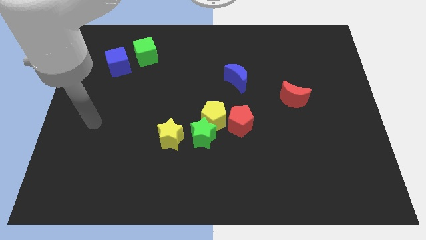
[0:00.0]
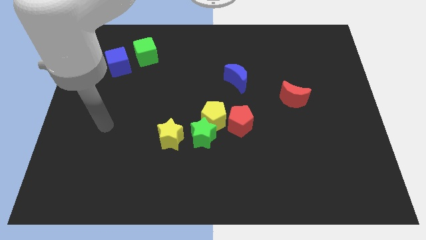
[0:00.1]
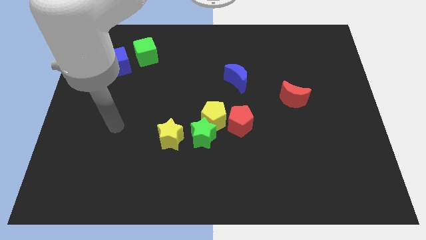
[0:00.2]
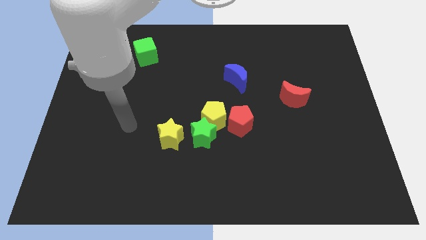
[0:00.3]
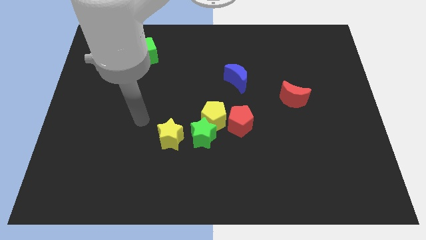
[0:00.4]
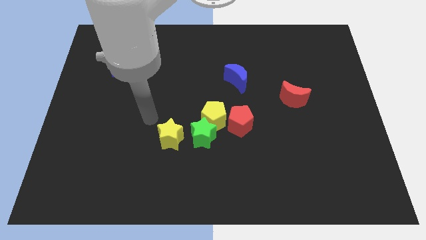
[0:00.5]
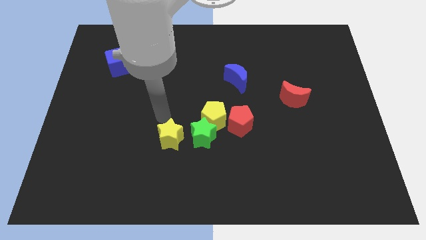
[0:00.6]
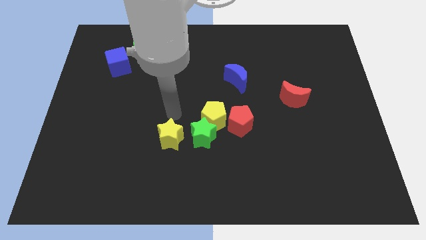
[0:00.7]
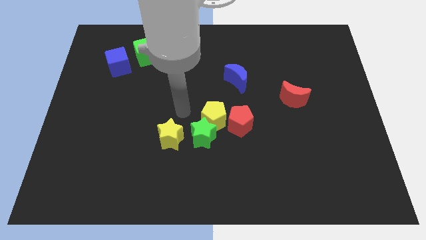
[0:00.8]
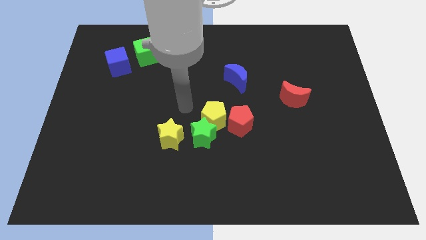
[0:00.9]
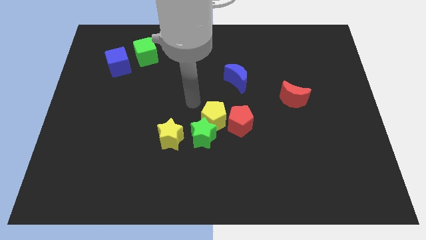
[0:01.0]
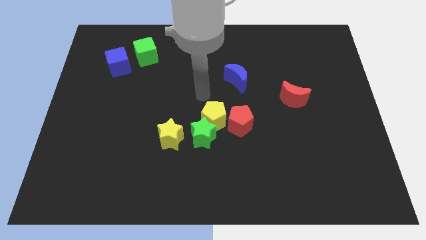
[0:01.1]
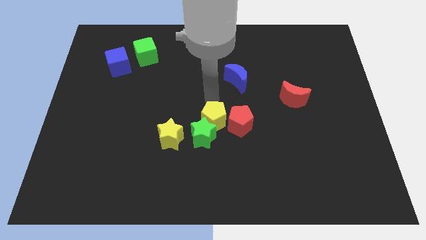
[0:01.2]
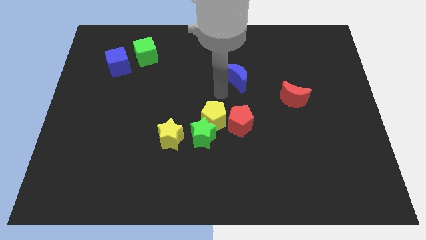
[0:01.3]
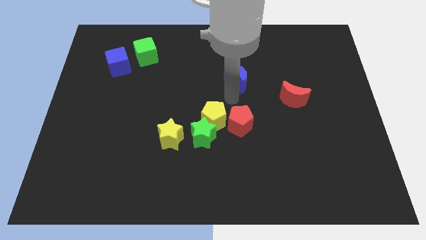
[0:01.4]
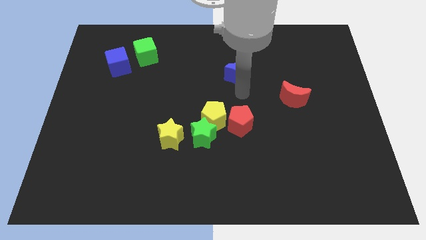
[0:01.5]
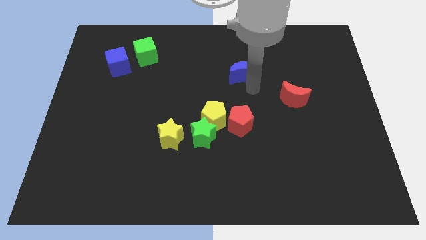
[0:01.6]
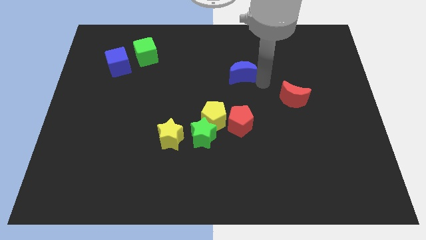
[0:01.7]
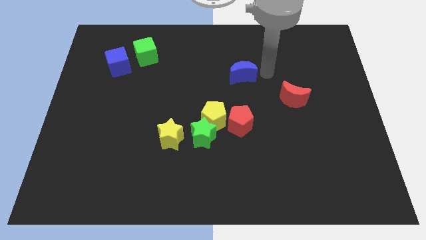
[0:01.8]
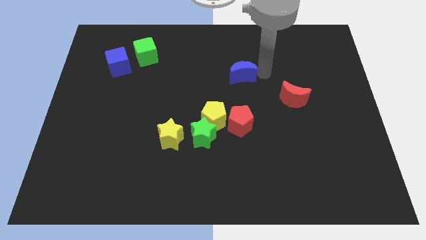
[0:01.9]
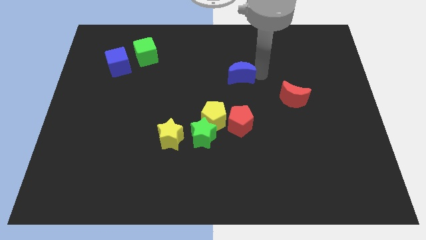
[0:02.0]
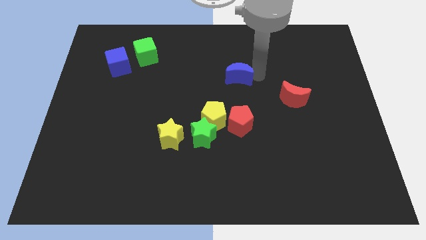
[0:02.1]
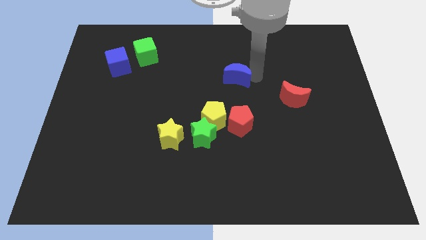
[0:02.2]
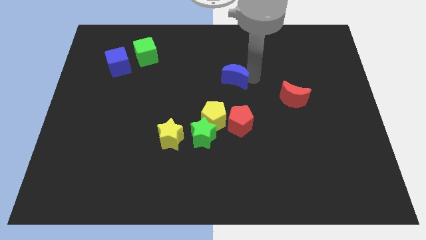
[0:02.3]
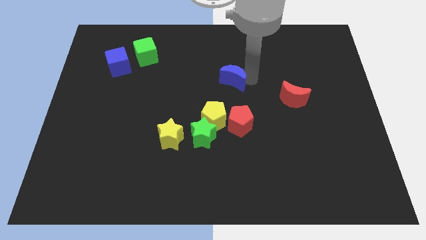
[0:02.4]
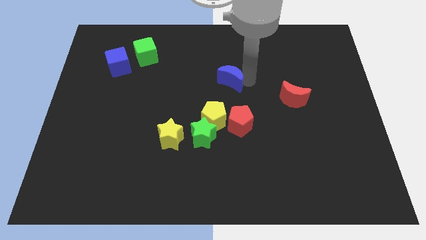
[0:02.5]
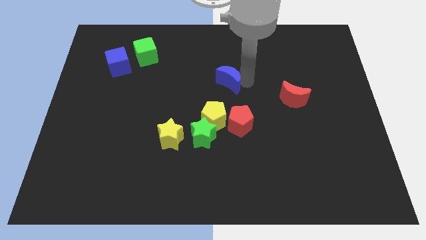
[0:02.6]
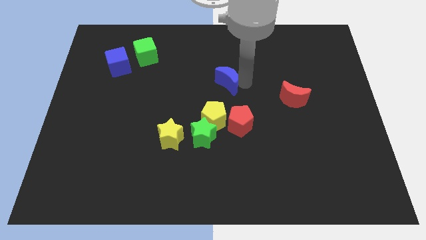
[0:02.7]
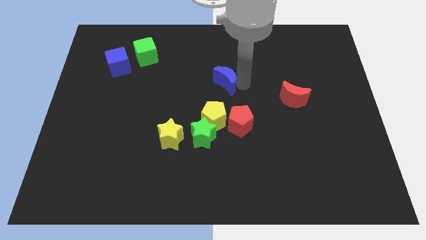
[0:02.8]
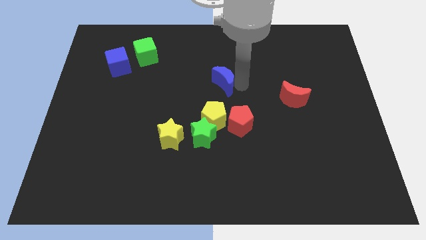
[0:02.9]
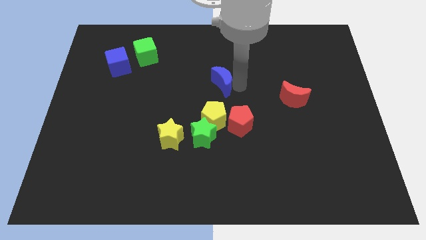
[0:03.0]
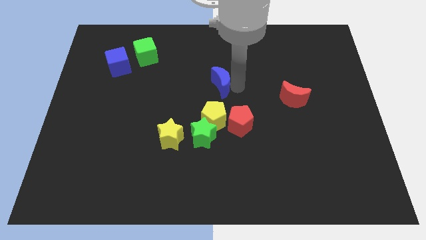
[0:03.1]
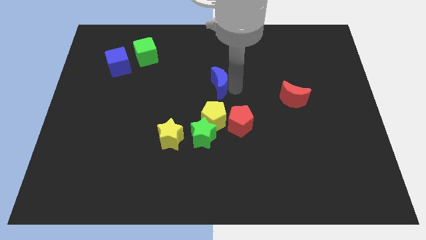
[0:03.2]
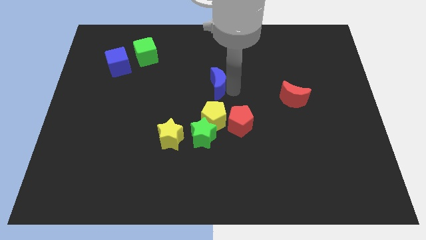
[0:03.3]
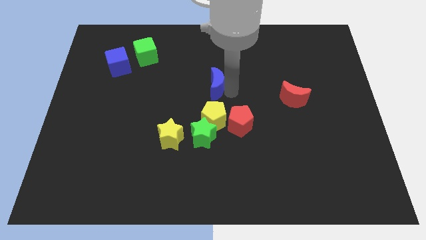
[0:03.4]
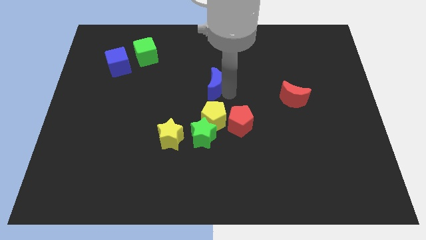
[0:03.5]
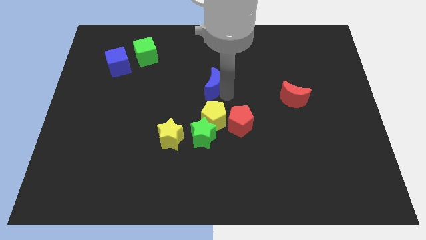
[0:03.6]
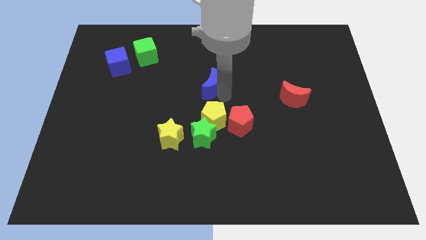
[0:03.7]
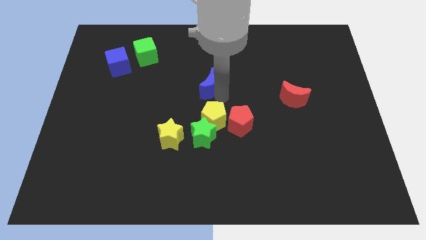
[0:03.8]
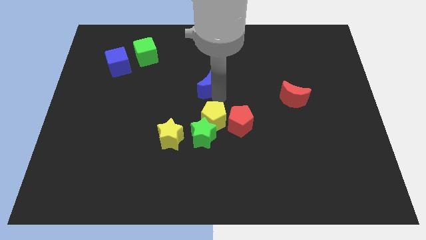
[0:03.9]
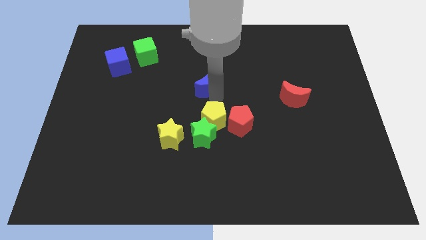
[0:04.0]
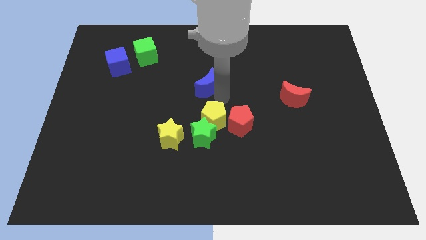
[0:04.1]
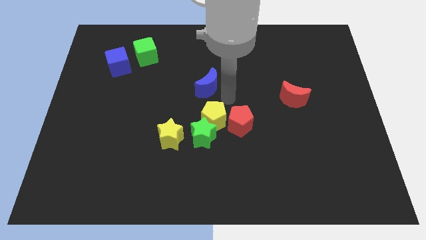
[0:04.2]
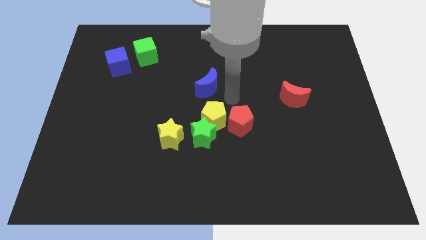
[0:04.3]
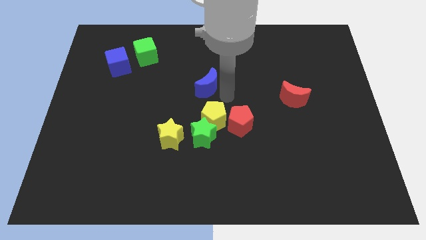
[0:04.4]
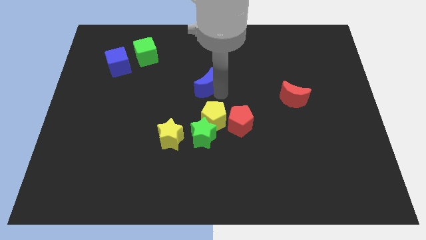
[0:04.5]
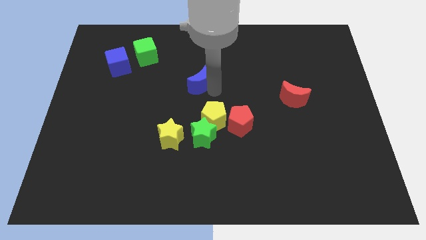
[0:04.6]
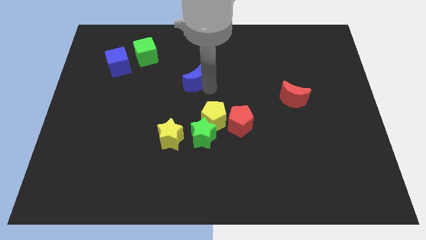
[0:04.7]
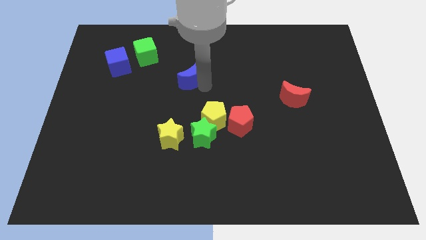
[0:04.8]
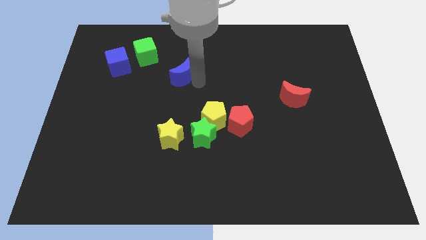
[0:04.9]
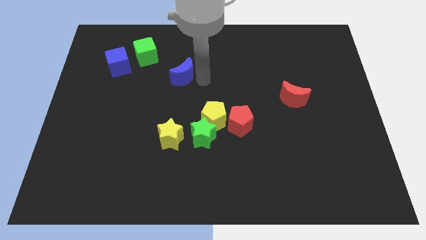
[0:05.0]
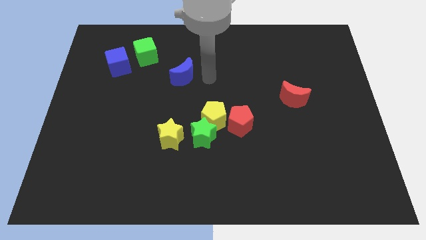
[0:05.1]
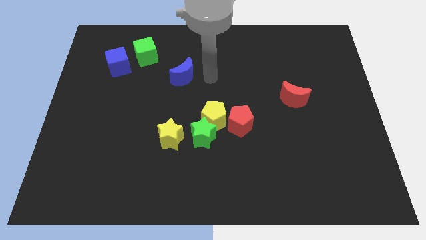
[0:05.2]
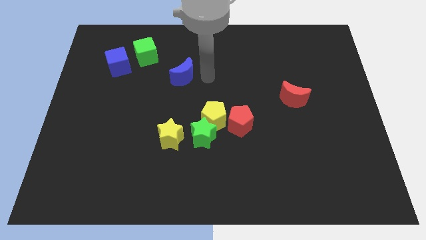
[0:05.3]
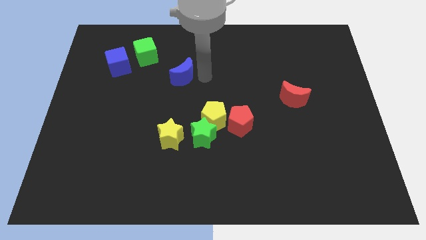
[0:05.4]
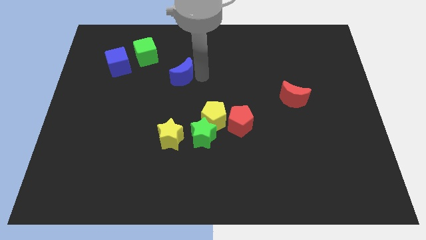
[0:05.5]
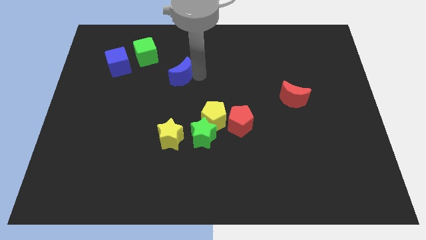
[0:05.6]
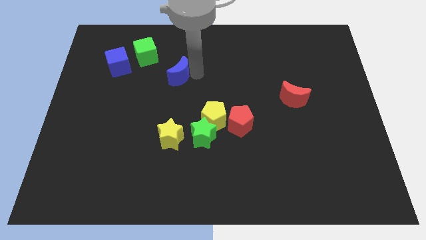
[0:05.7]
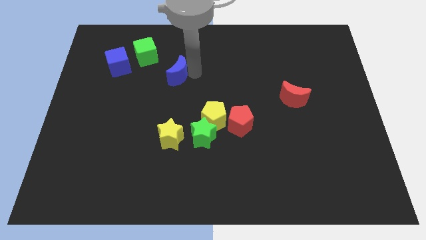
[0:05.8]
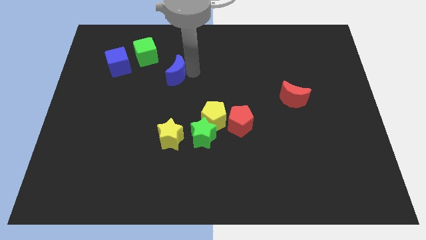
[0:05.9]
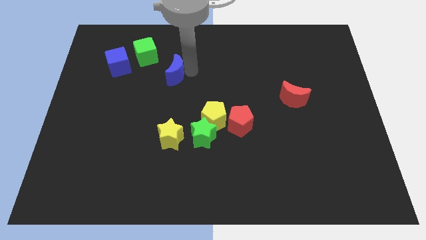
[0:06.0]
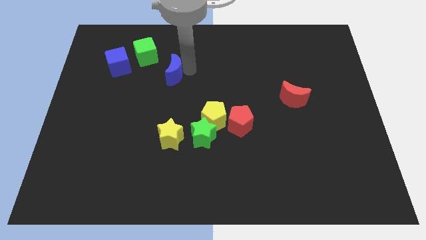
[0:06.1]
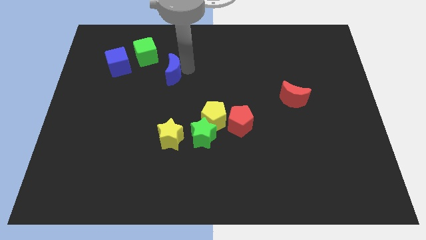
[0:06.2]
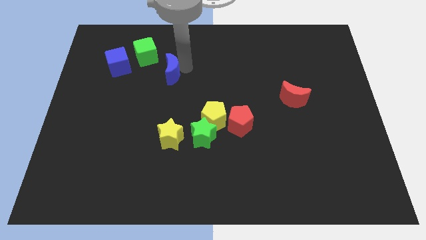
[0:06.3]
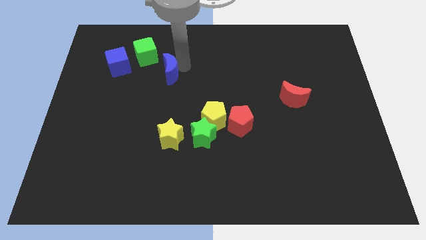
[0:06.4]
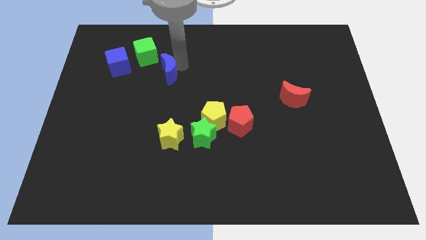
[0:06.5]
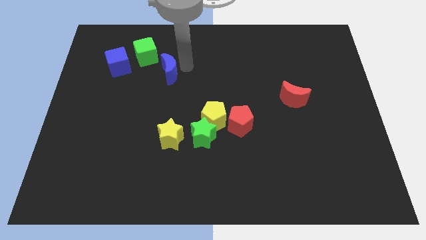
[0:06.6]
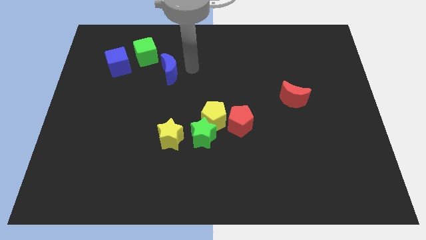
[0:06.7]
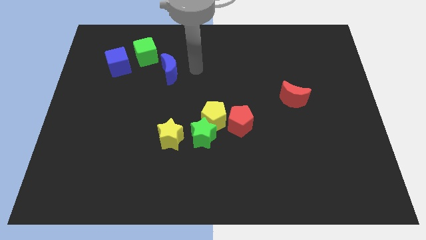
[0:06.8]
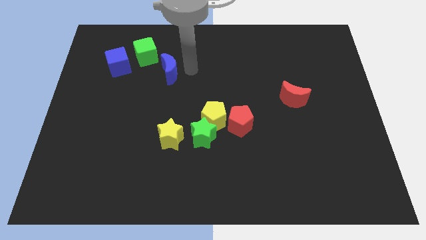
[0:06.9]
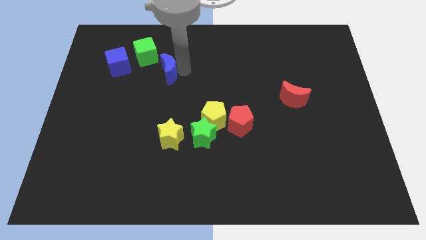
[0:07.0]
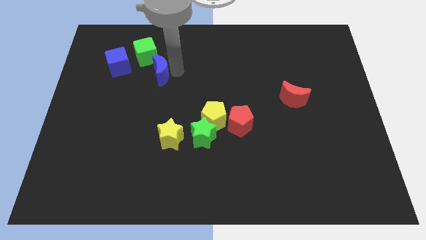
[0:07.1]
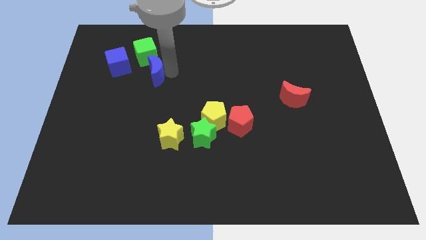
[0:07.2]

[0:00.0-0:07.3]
push the blue moon to the left

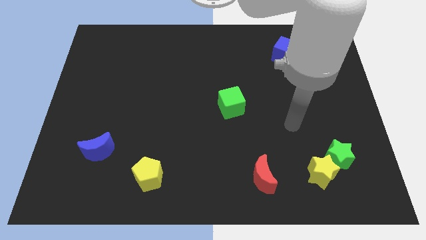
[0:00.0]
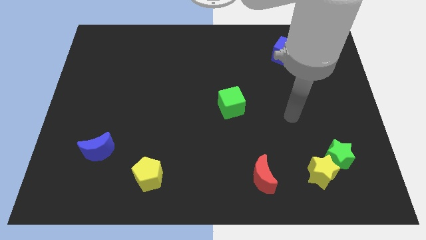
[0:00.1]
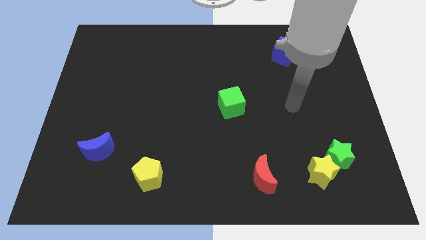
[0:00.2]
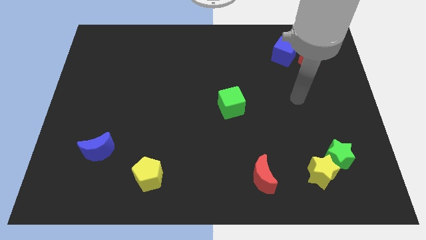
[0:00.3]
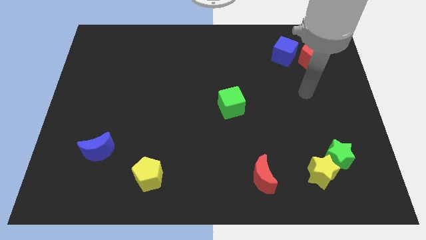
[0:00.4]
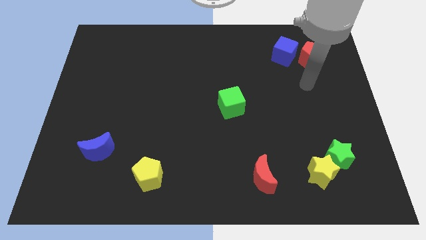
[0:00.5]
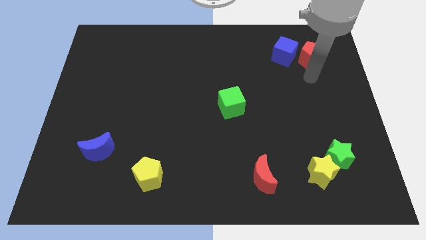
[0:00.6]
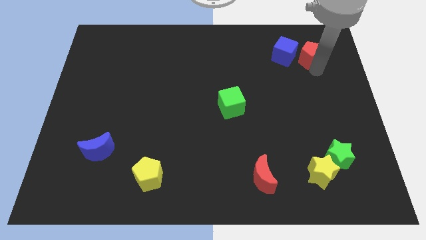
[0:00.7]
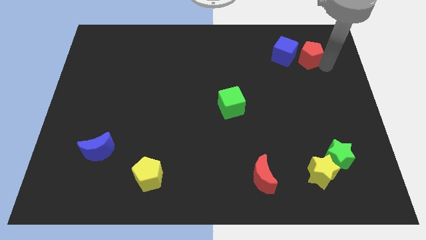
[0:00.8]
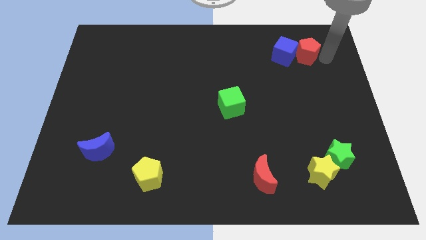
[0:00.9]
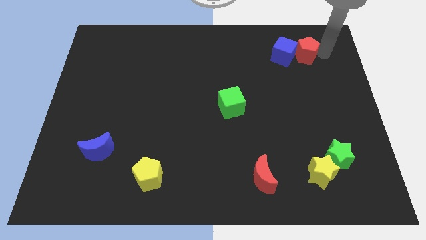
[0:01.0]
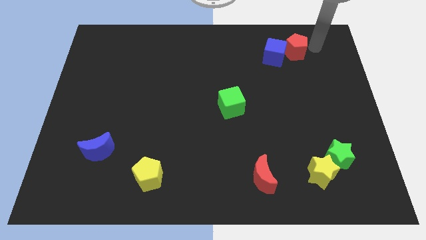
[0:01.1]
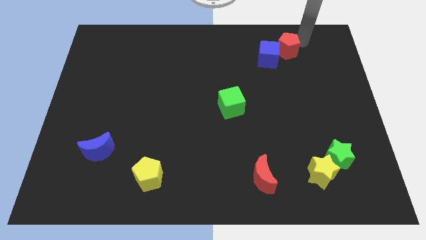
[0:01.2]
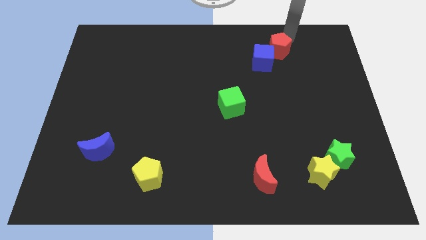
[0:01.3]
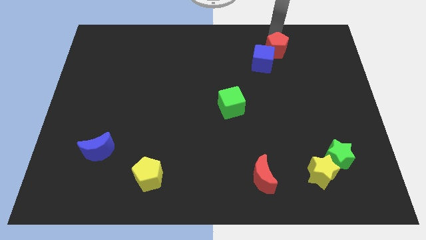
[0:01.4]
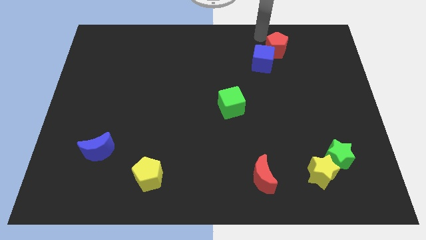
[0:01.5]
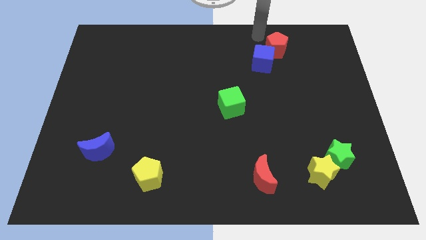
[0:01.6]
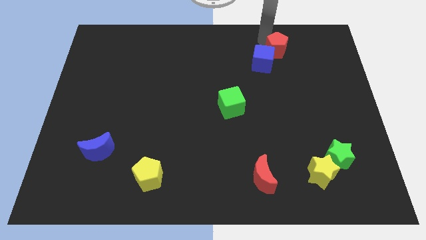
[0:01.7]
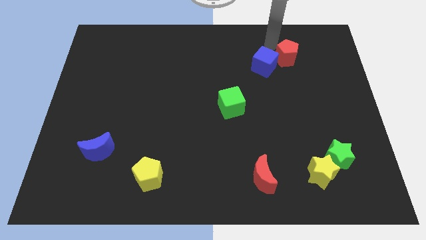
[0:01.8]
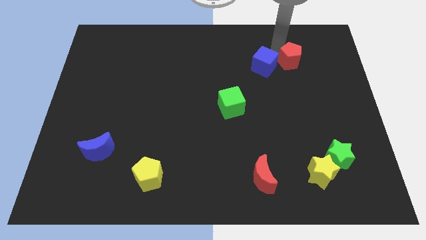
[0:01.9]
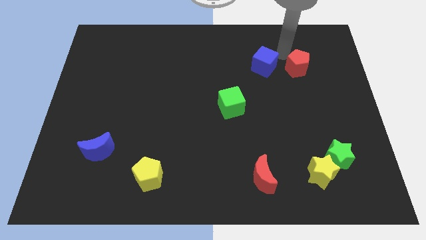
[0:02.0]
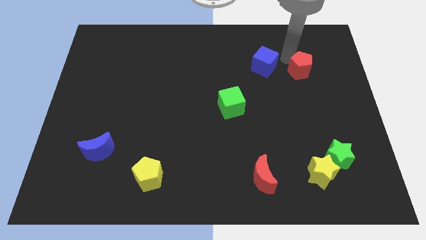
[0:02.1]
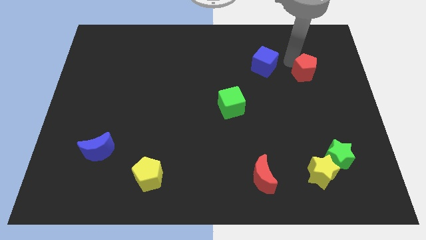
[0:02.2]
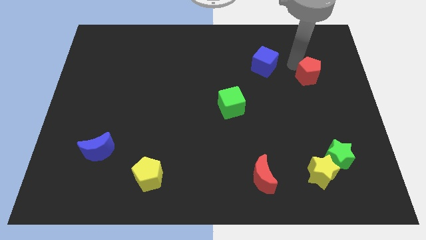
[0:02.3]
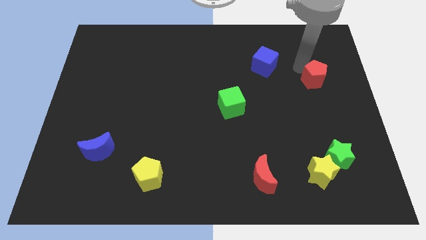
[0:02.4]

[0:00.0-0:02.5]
slightly push the red pentagon downwards
